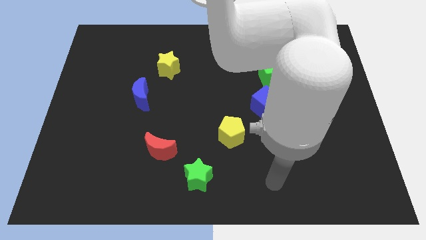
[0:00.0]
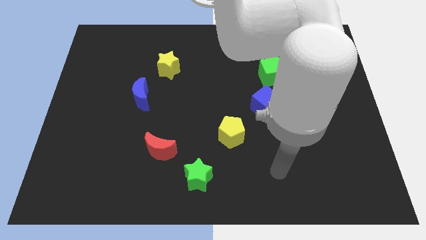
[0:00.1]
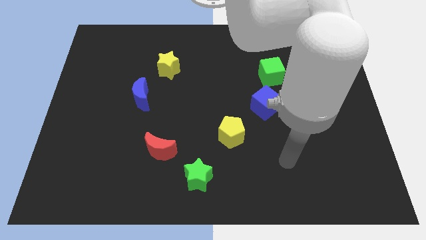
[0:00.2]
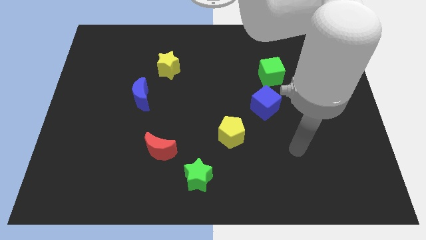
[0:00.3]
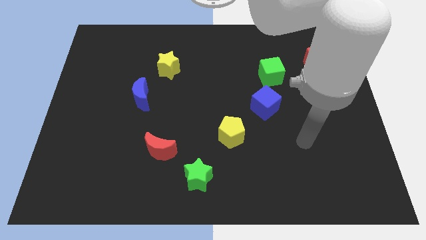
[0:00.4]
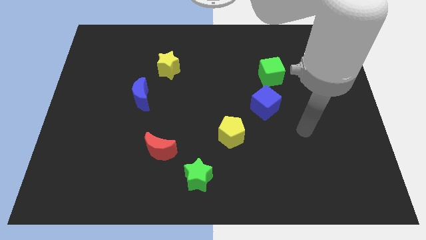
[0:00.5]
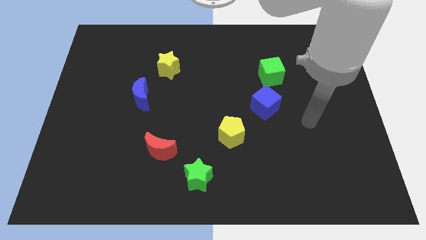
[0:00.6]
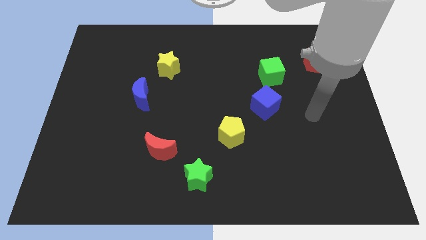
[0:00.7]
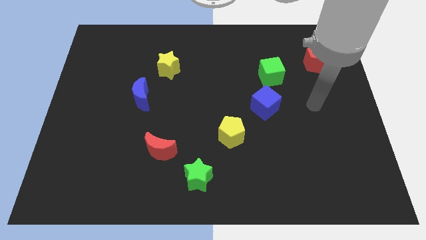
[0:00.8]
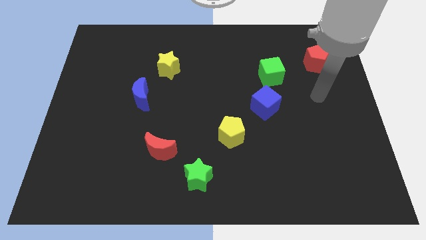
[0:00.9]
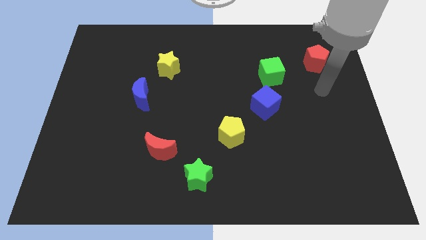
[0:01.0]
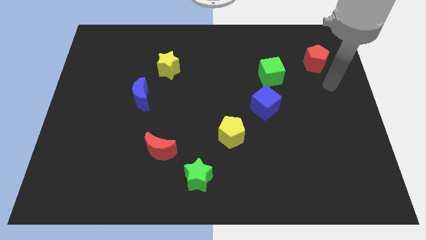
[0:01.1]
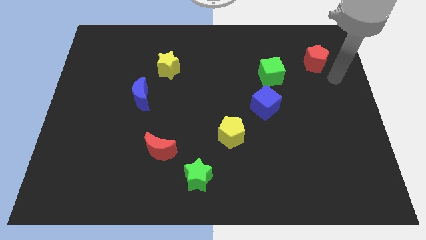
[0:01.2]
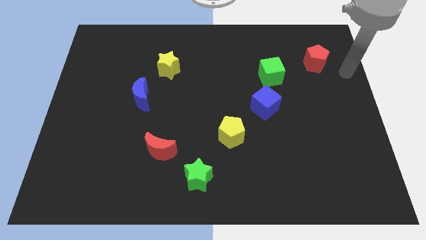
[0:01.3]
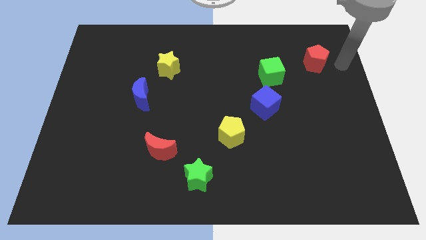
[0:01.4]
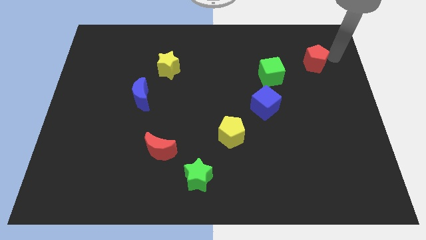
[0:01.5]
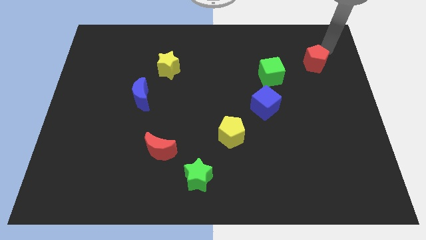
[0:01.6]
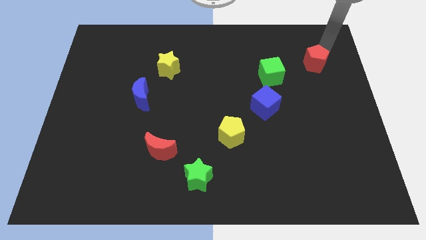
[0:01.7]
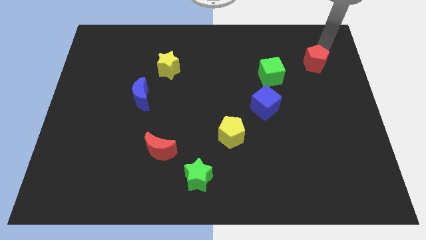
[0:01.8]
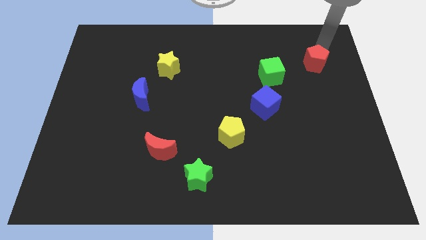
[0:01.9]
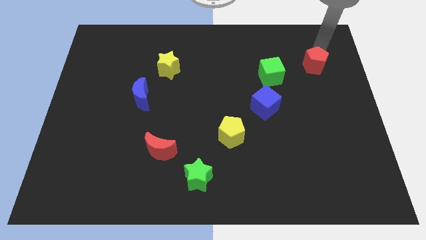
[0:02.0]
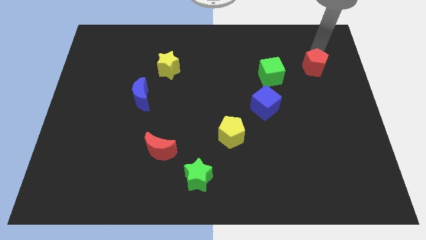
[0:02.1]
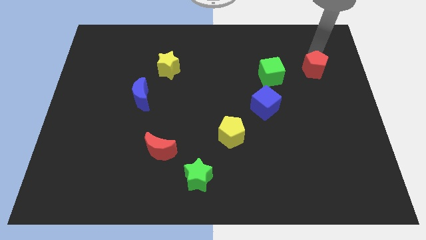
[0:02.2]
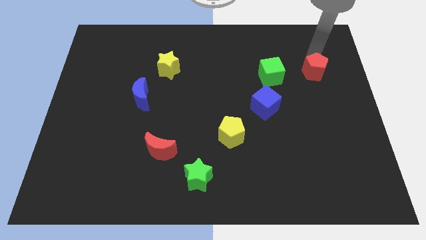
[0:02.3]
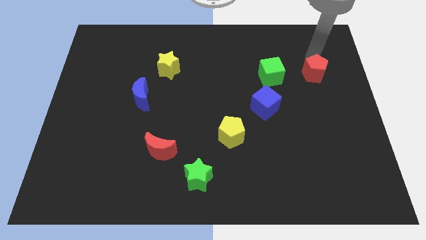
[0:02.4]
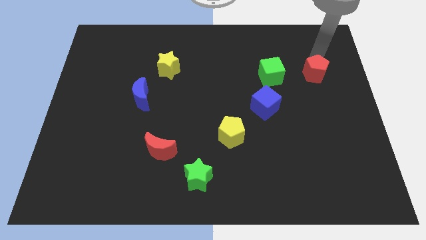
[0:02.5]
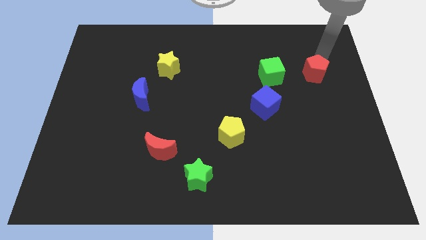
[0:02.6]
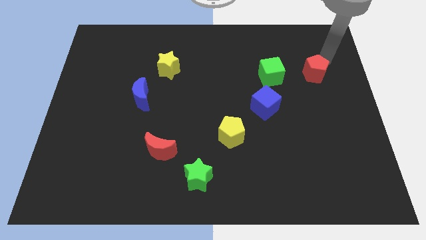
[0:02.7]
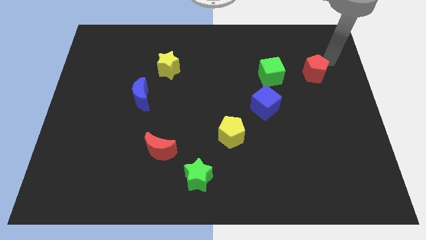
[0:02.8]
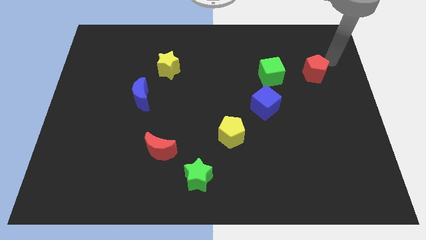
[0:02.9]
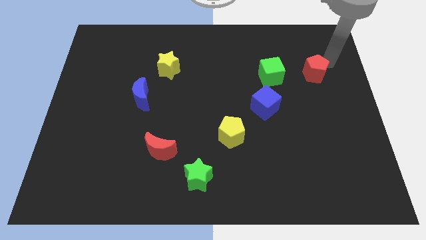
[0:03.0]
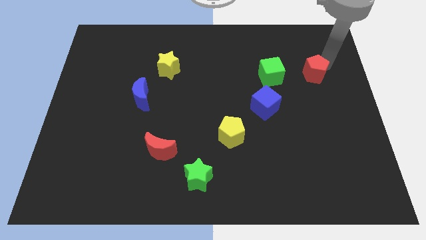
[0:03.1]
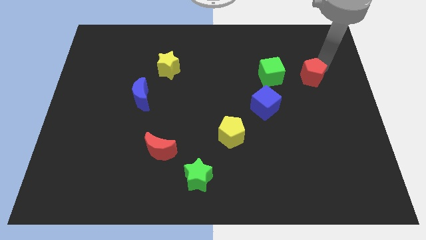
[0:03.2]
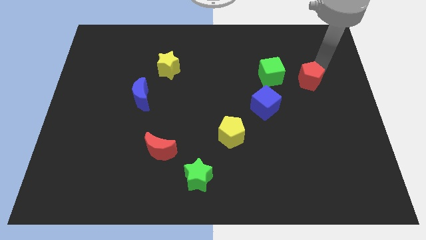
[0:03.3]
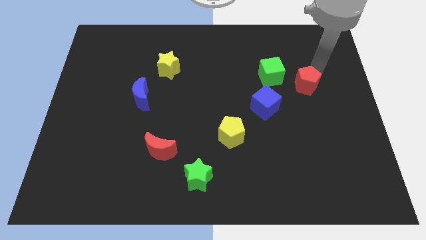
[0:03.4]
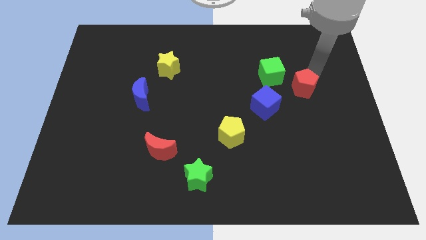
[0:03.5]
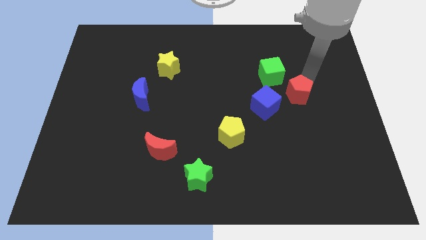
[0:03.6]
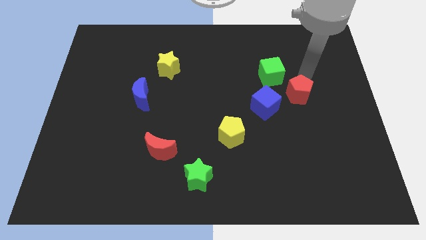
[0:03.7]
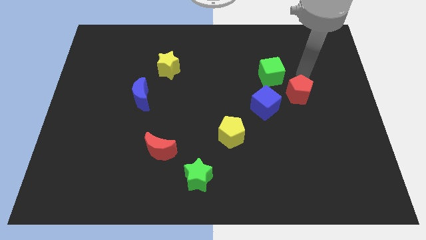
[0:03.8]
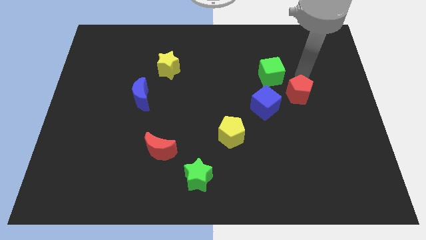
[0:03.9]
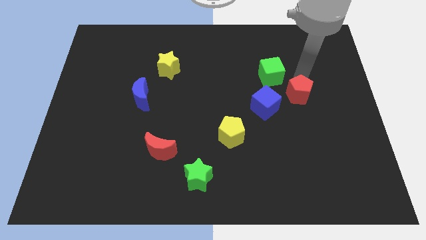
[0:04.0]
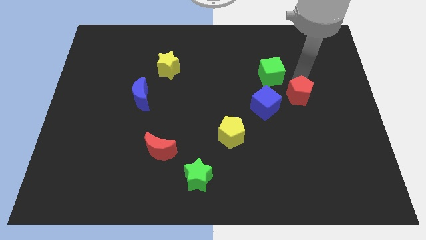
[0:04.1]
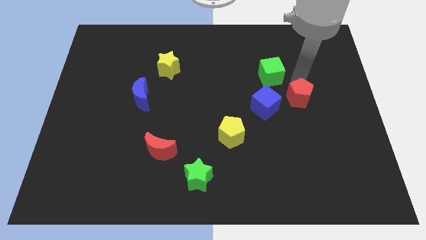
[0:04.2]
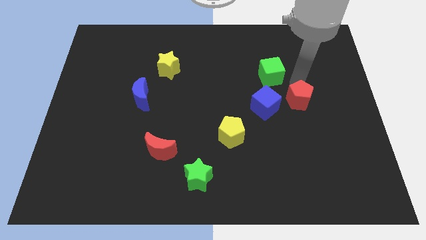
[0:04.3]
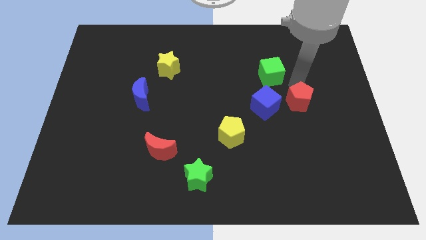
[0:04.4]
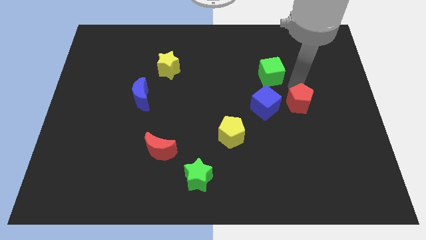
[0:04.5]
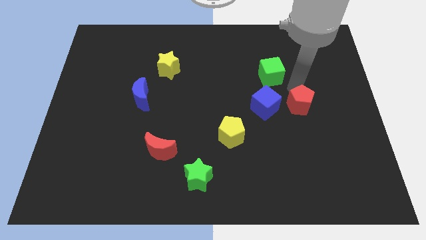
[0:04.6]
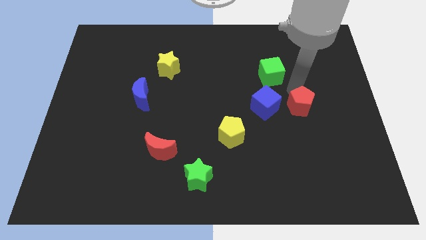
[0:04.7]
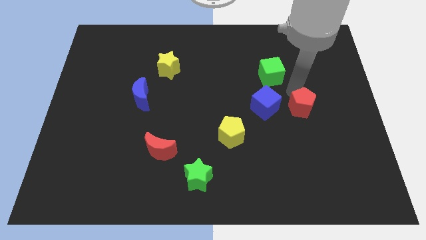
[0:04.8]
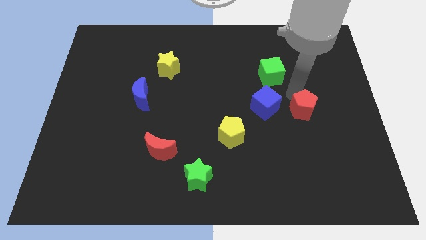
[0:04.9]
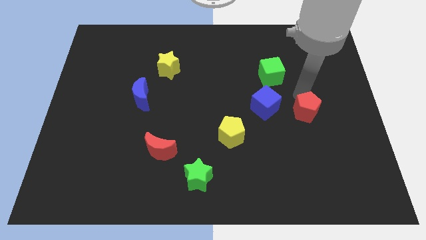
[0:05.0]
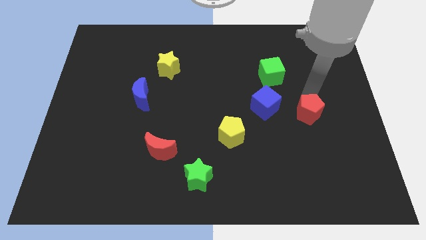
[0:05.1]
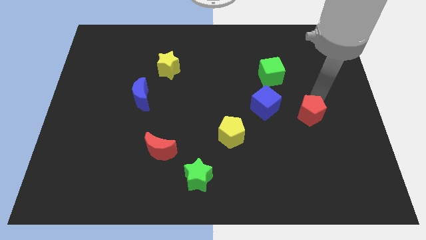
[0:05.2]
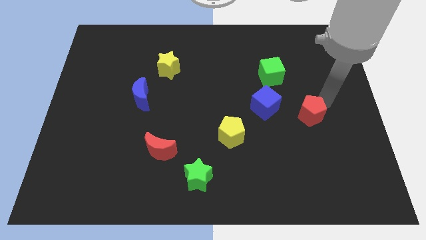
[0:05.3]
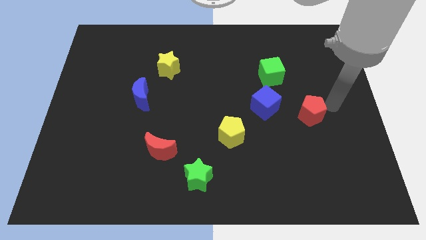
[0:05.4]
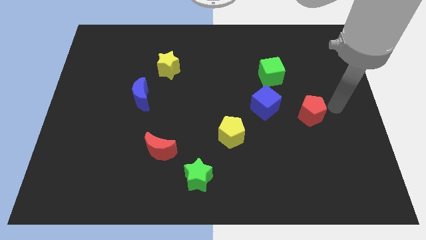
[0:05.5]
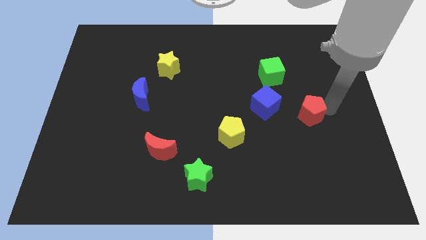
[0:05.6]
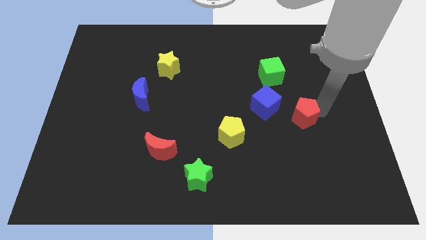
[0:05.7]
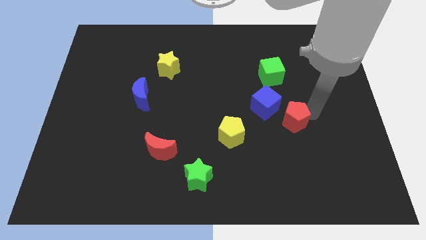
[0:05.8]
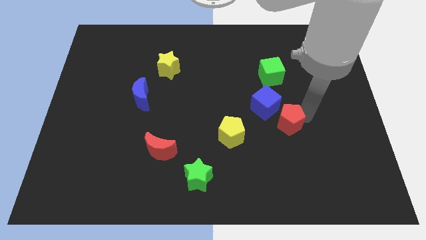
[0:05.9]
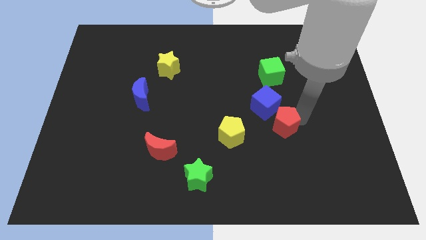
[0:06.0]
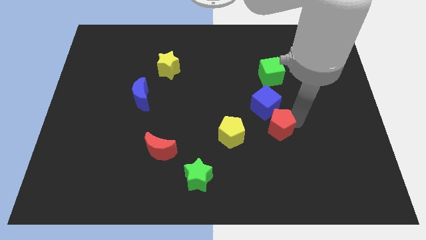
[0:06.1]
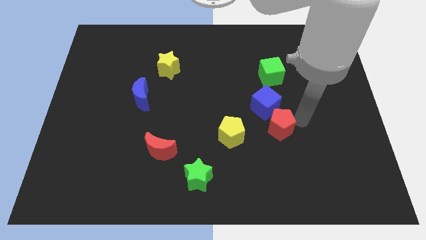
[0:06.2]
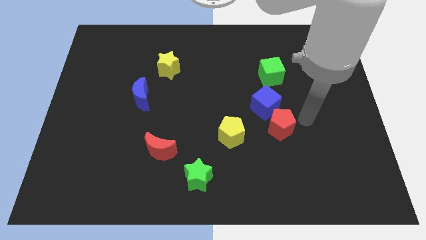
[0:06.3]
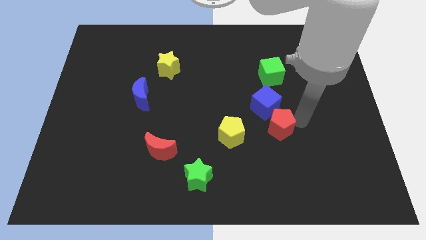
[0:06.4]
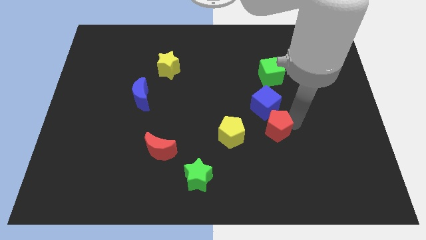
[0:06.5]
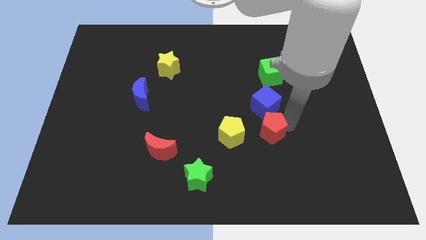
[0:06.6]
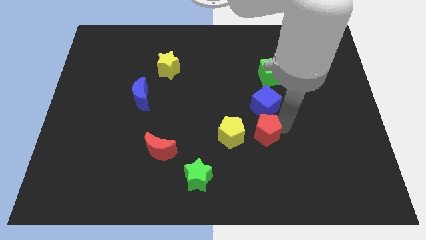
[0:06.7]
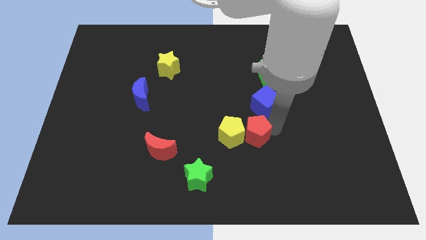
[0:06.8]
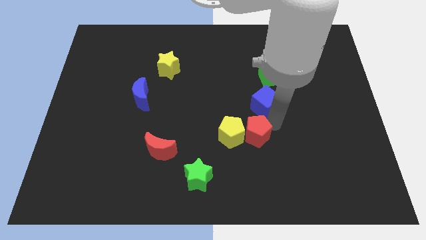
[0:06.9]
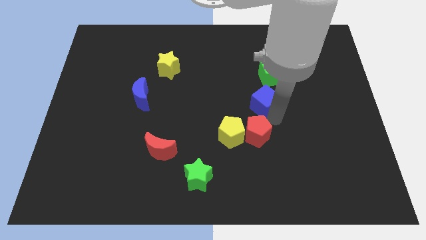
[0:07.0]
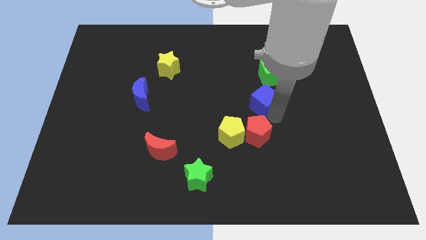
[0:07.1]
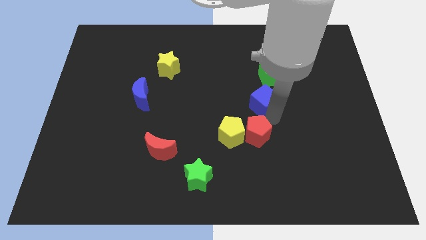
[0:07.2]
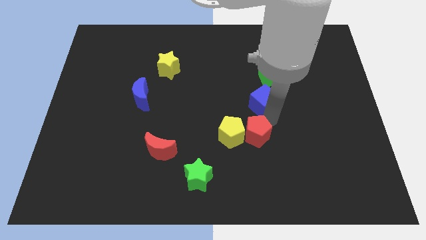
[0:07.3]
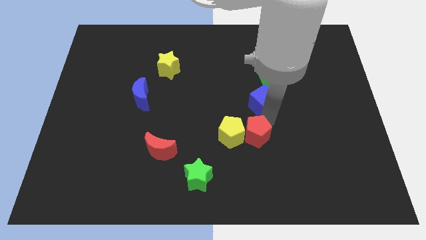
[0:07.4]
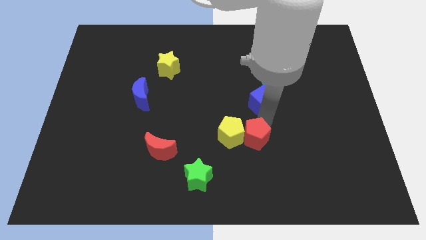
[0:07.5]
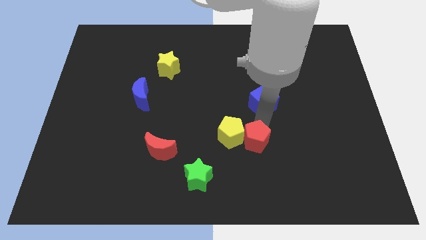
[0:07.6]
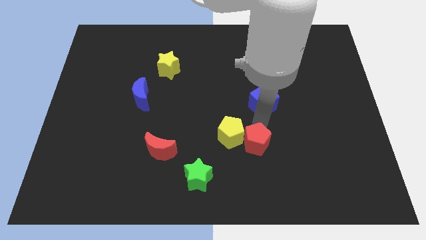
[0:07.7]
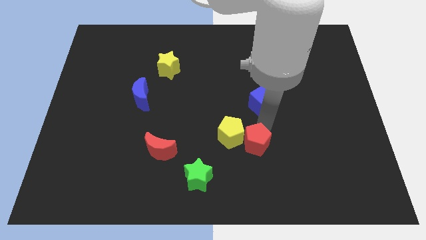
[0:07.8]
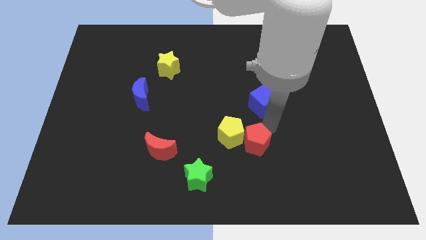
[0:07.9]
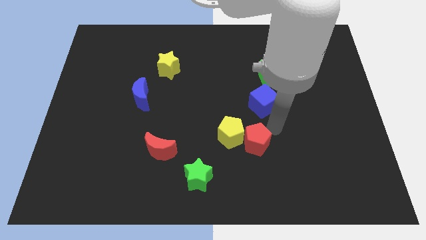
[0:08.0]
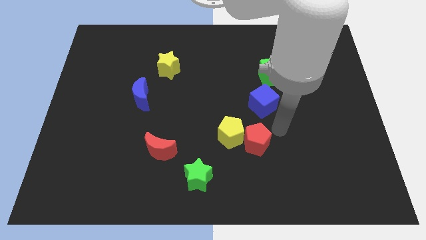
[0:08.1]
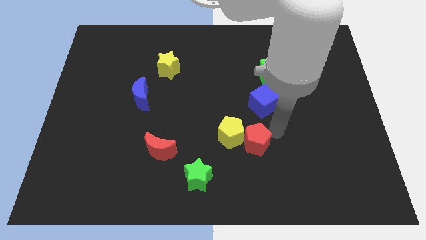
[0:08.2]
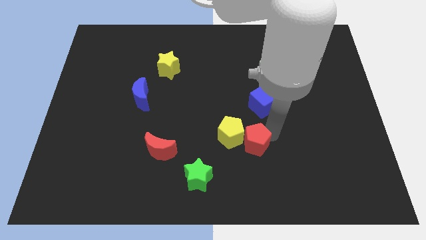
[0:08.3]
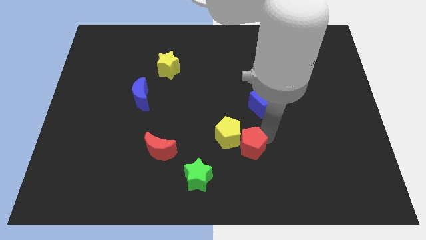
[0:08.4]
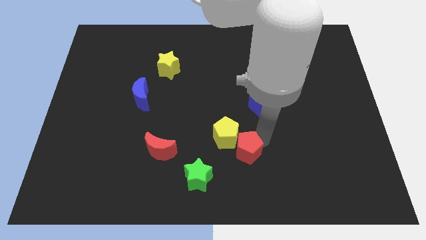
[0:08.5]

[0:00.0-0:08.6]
put the red pentagon diagonally up and to the right of the green star
